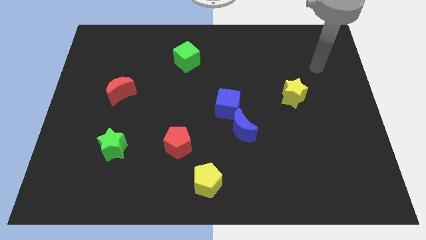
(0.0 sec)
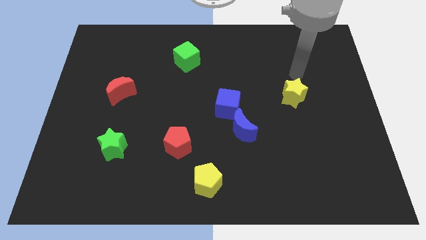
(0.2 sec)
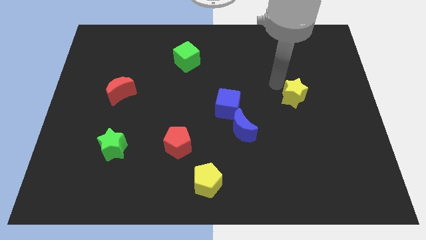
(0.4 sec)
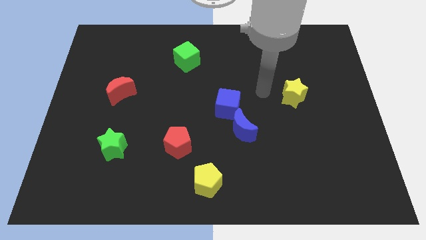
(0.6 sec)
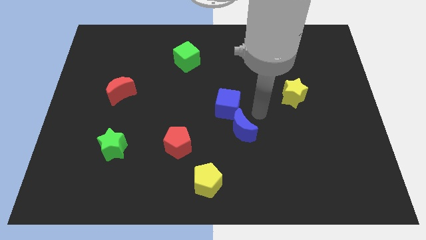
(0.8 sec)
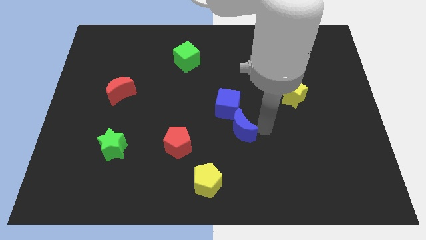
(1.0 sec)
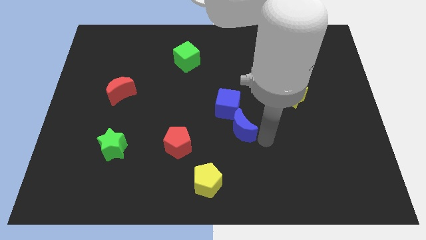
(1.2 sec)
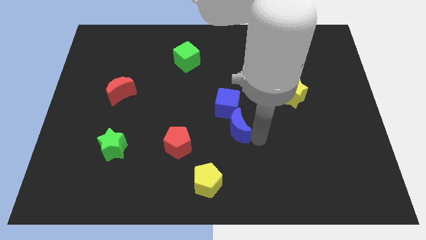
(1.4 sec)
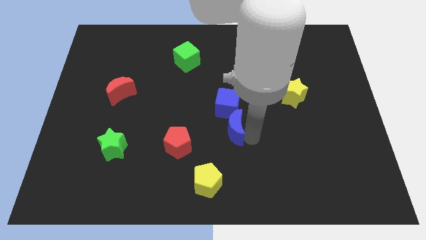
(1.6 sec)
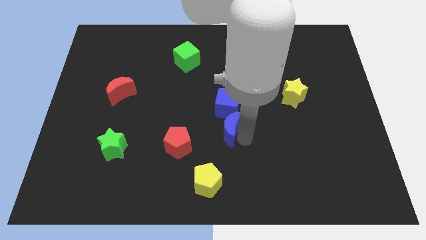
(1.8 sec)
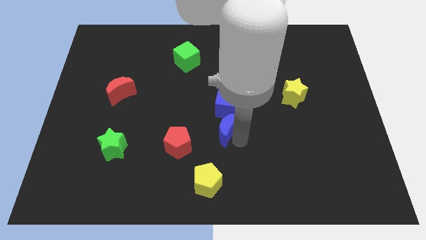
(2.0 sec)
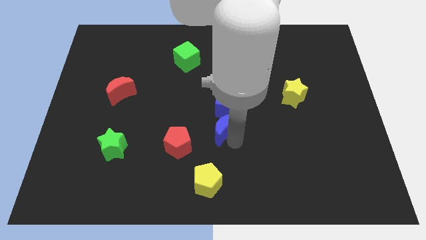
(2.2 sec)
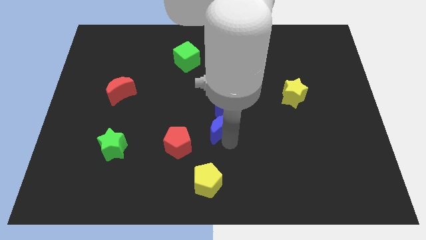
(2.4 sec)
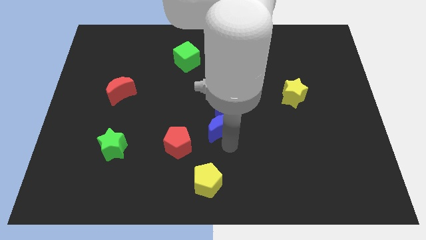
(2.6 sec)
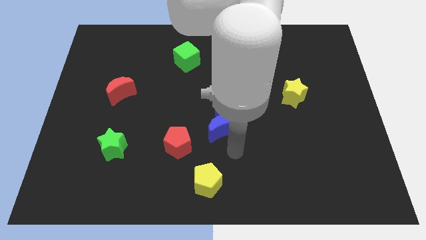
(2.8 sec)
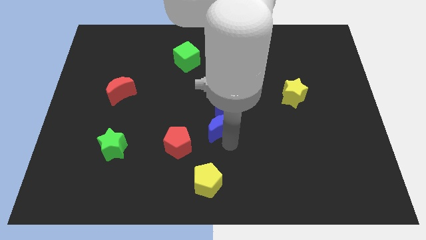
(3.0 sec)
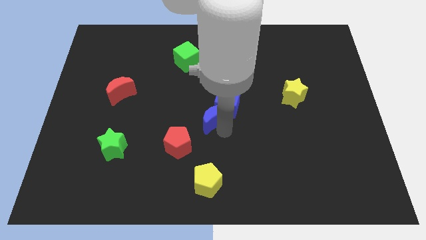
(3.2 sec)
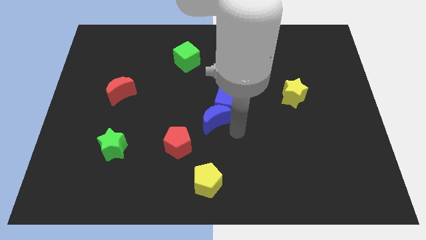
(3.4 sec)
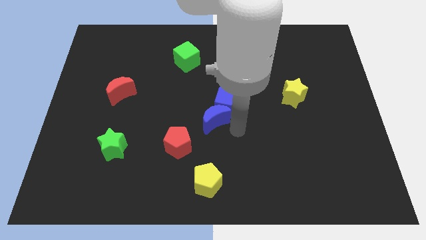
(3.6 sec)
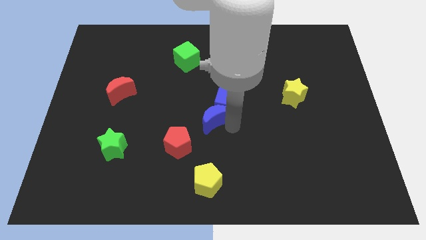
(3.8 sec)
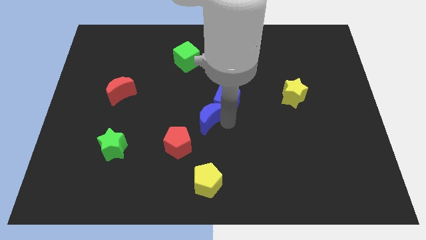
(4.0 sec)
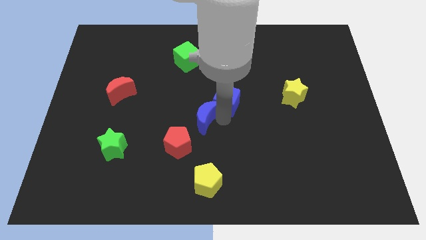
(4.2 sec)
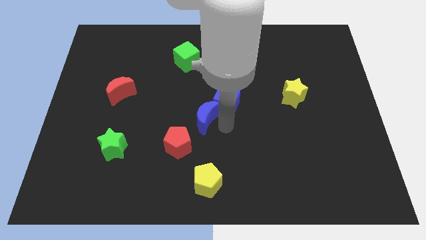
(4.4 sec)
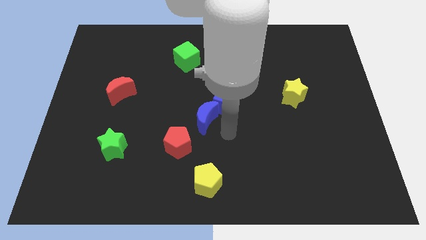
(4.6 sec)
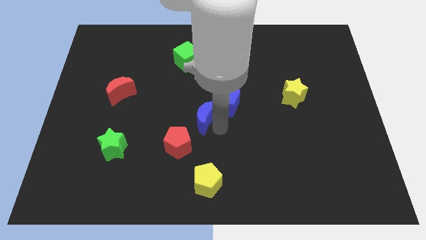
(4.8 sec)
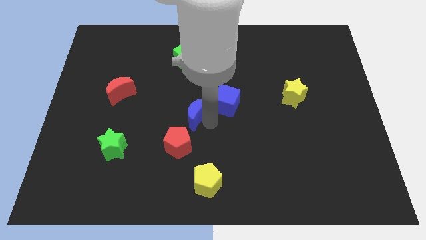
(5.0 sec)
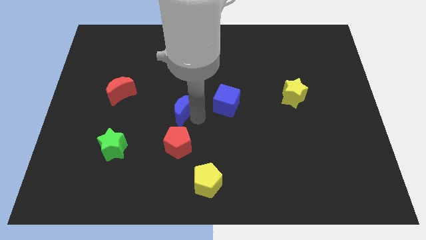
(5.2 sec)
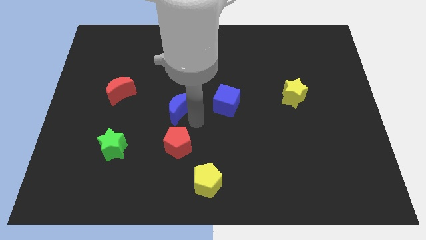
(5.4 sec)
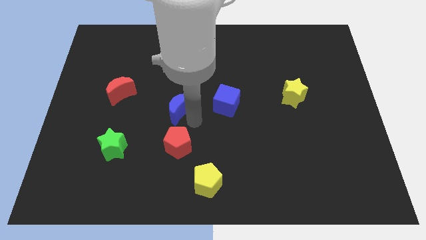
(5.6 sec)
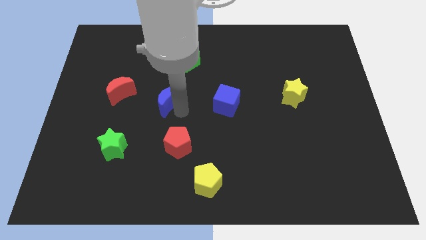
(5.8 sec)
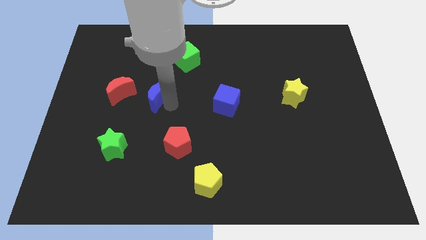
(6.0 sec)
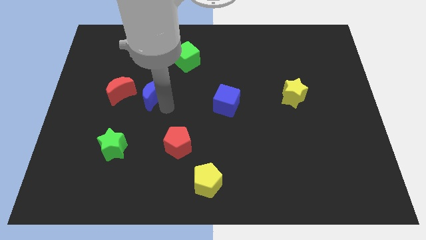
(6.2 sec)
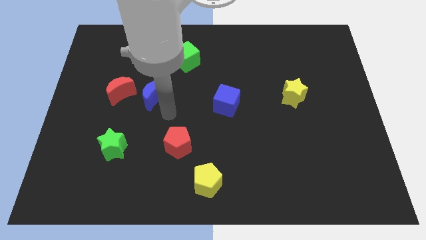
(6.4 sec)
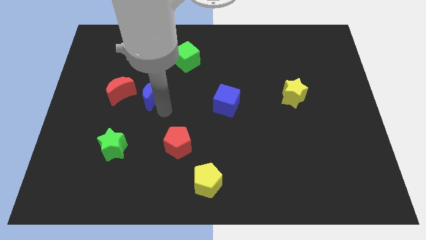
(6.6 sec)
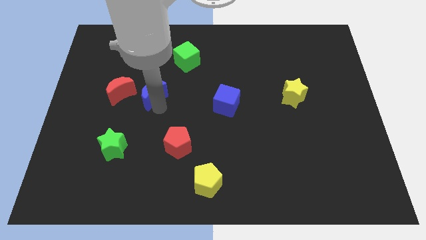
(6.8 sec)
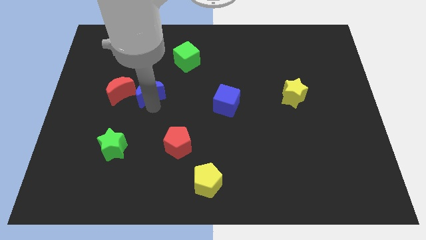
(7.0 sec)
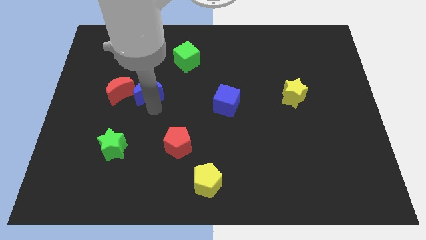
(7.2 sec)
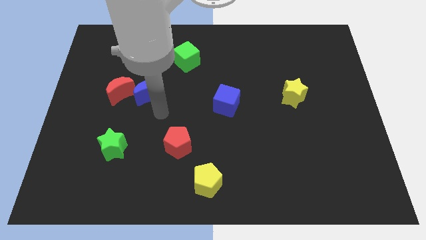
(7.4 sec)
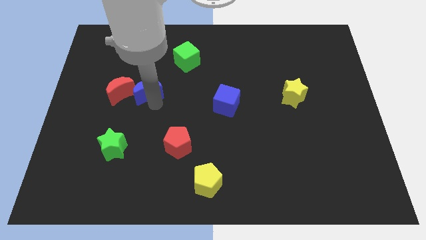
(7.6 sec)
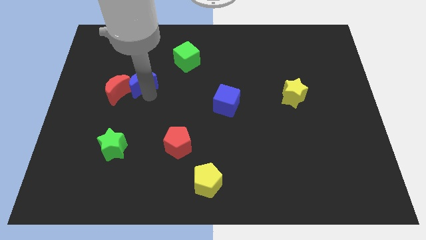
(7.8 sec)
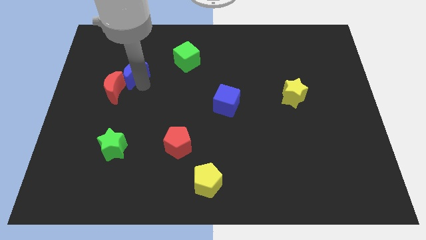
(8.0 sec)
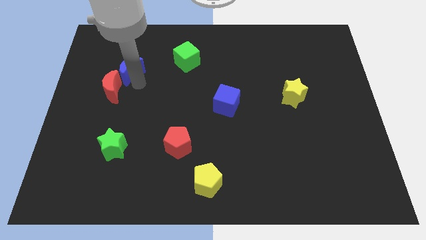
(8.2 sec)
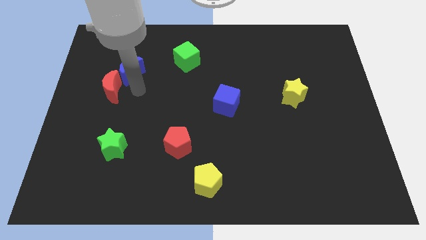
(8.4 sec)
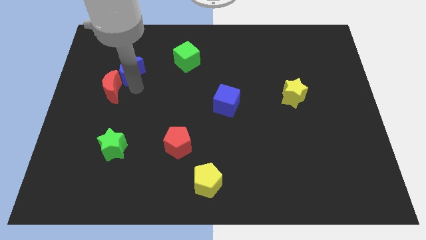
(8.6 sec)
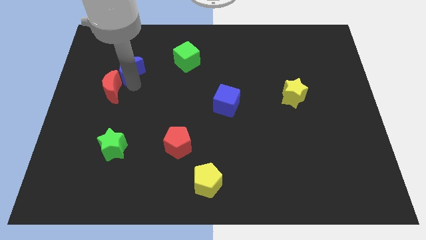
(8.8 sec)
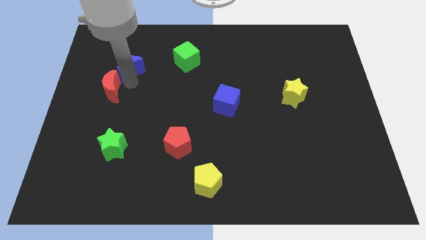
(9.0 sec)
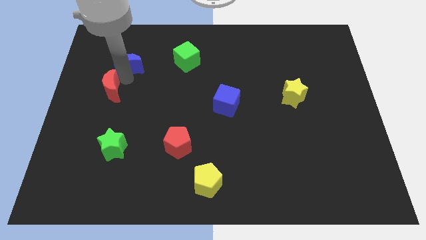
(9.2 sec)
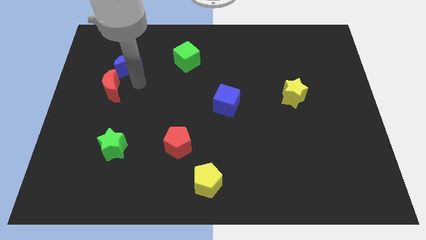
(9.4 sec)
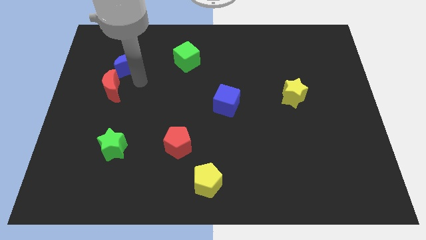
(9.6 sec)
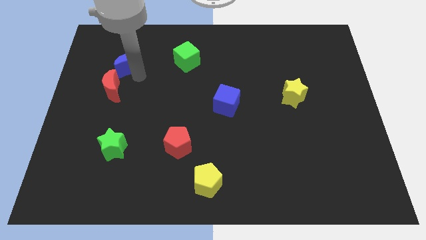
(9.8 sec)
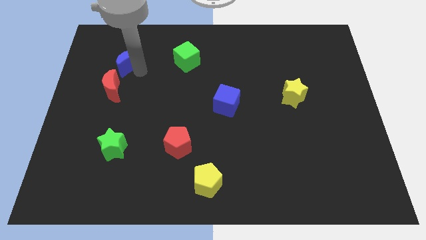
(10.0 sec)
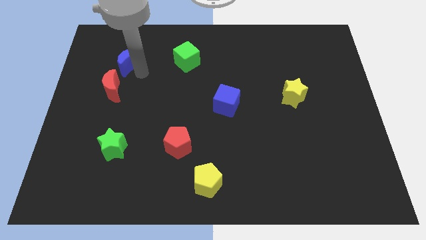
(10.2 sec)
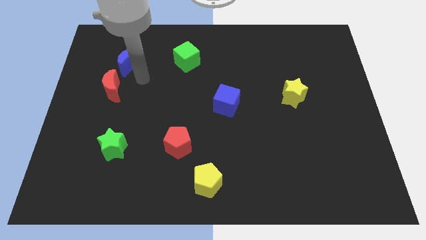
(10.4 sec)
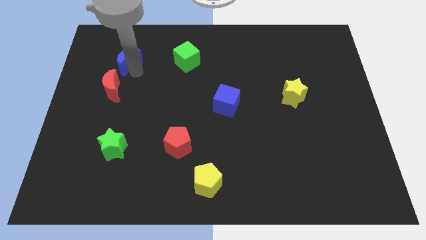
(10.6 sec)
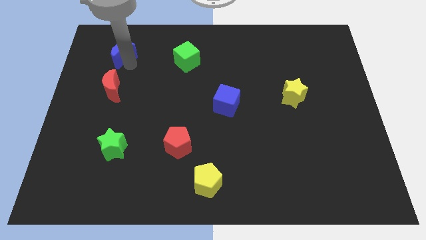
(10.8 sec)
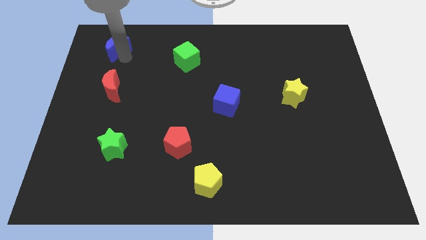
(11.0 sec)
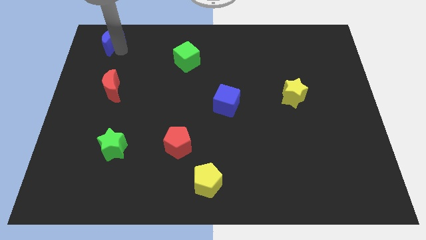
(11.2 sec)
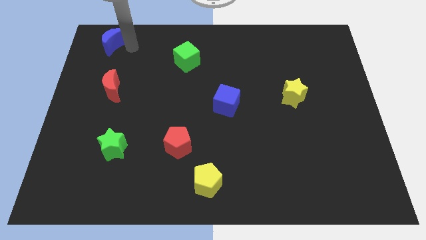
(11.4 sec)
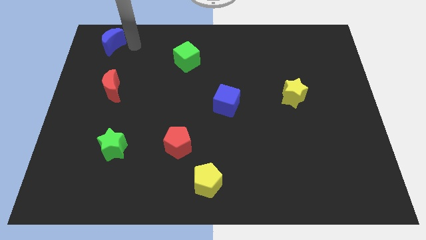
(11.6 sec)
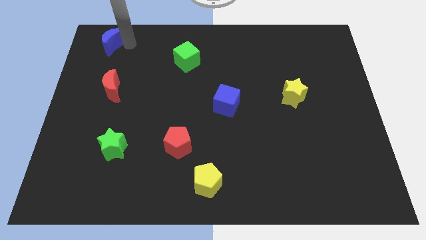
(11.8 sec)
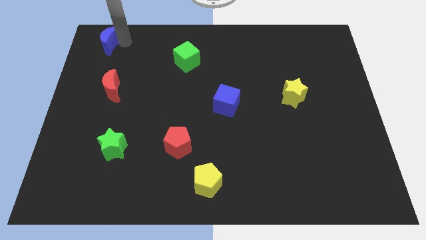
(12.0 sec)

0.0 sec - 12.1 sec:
push the blue moon to the top left
